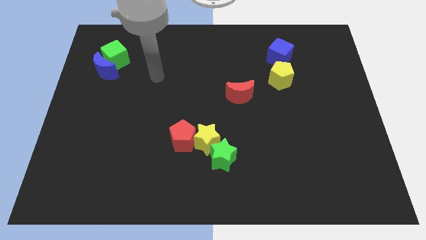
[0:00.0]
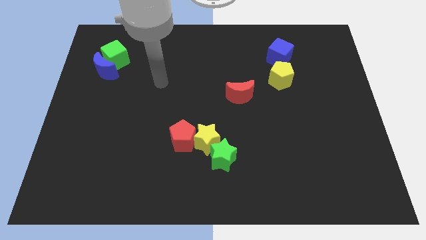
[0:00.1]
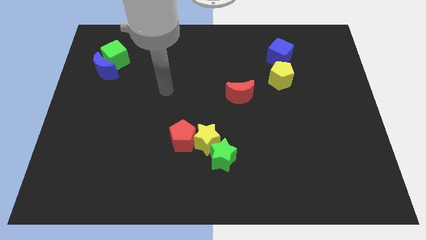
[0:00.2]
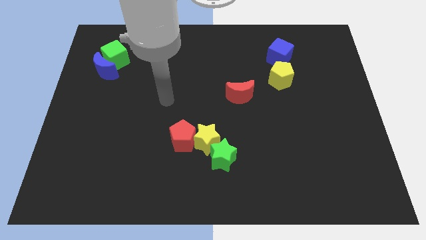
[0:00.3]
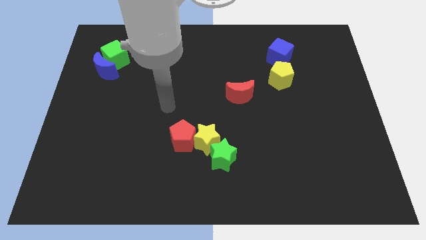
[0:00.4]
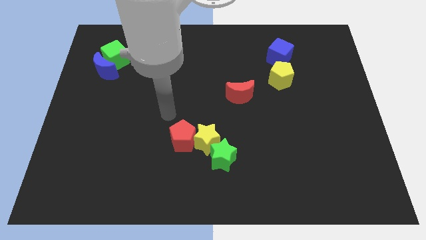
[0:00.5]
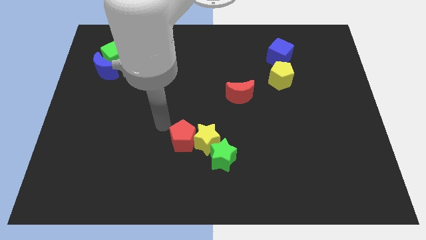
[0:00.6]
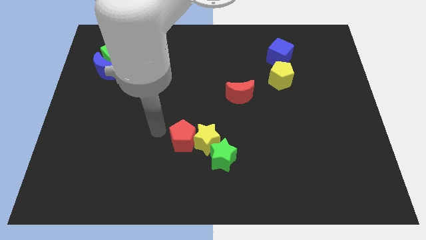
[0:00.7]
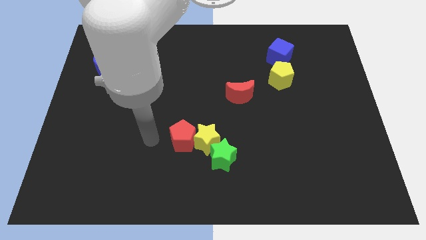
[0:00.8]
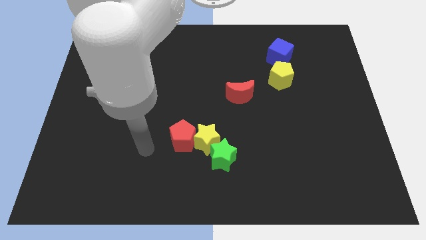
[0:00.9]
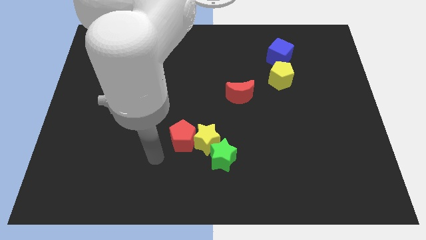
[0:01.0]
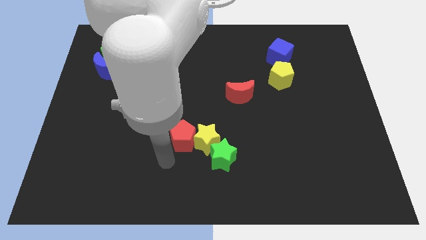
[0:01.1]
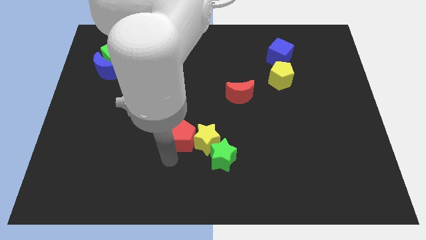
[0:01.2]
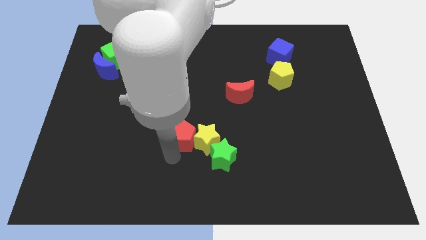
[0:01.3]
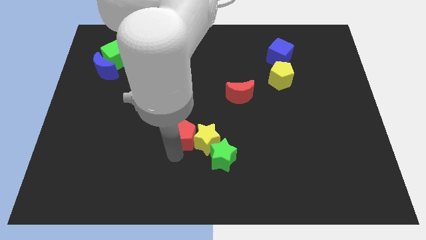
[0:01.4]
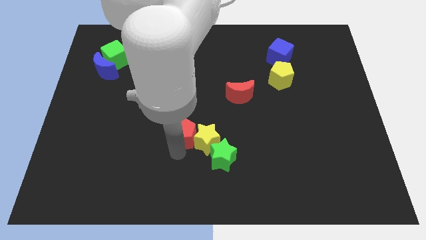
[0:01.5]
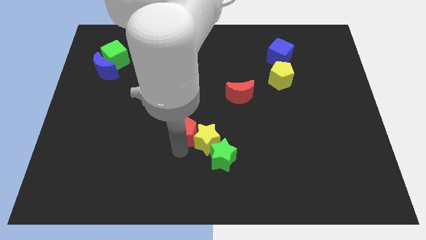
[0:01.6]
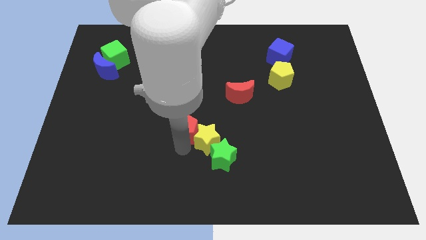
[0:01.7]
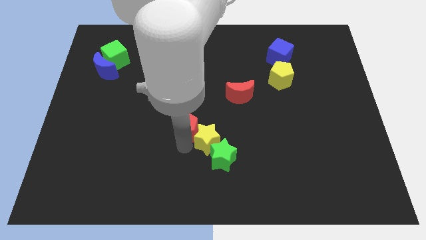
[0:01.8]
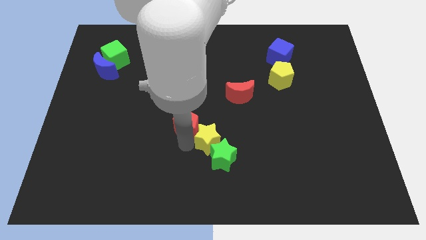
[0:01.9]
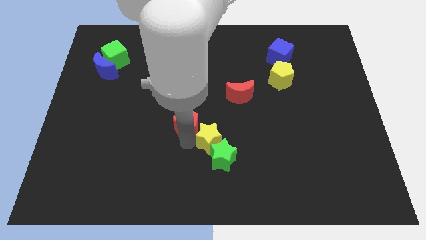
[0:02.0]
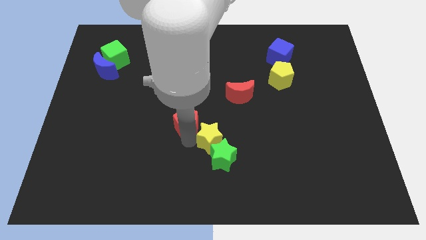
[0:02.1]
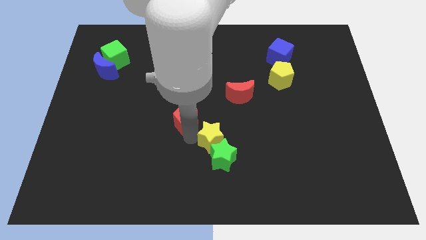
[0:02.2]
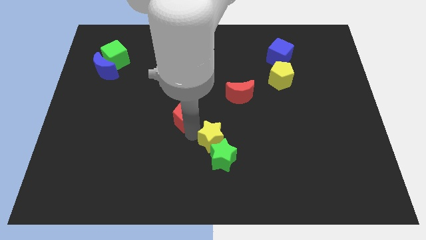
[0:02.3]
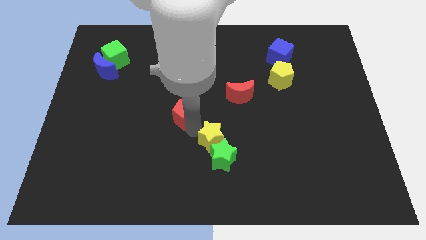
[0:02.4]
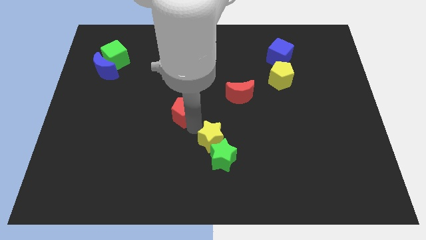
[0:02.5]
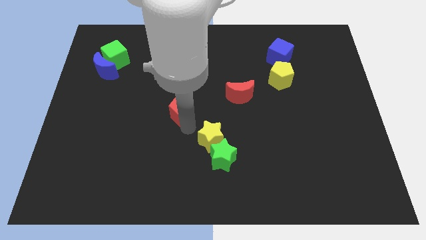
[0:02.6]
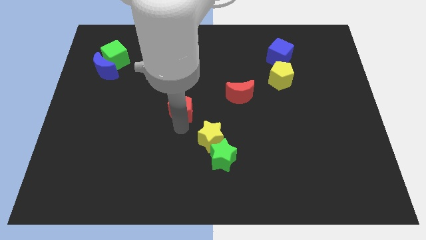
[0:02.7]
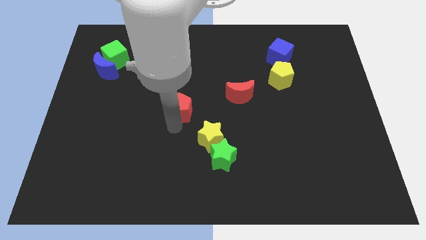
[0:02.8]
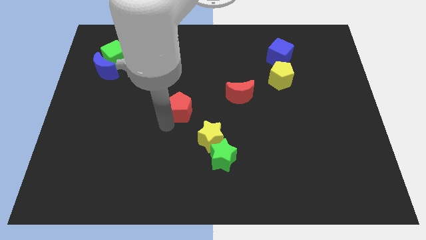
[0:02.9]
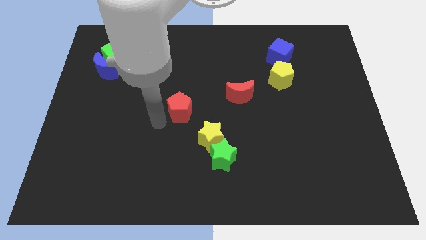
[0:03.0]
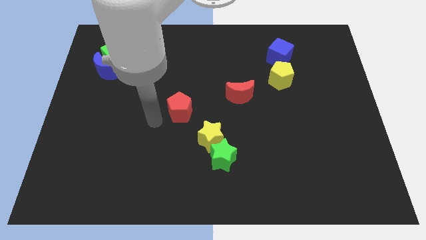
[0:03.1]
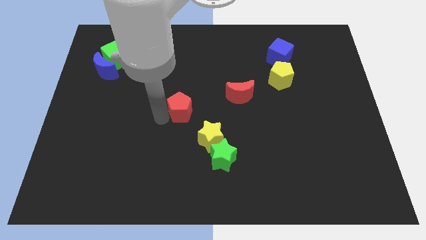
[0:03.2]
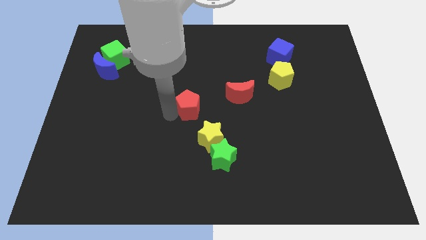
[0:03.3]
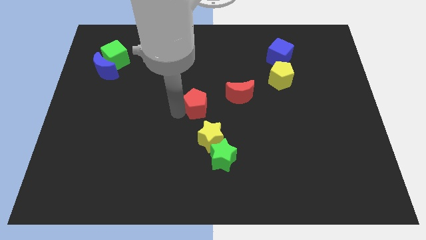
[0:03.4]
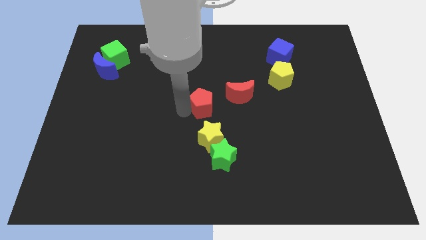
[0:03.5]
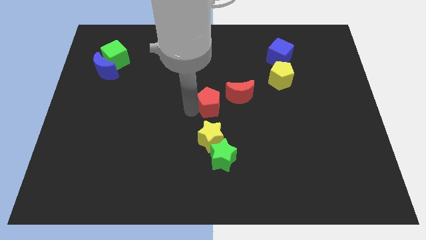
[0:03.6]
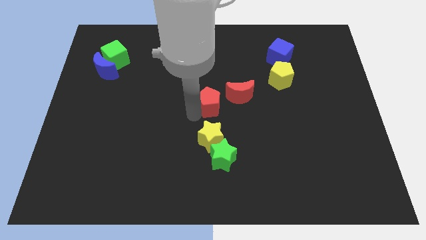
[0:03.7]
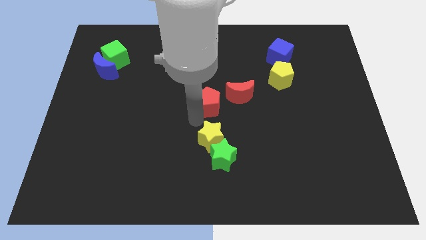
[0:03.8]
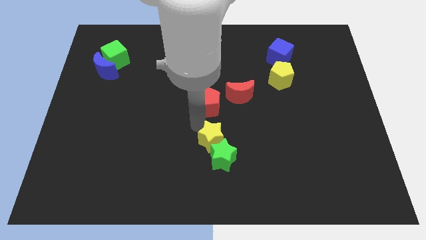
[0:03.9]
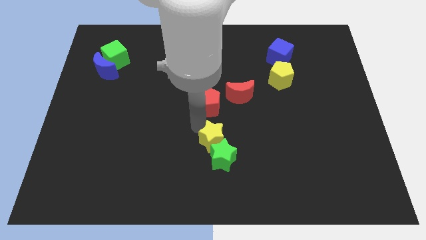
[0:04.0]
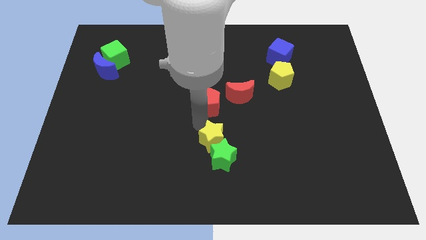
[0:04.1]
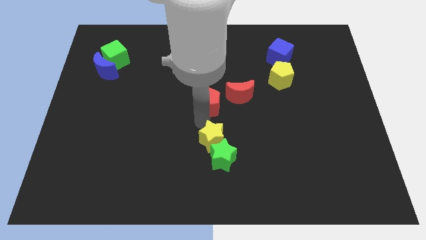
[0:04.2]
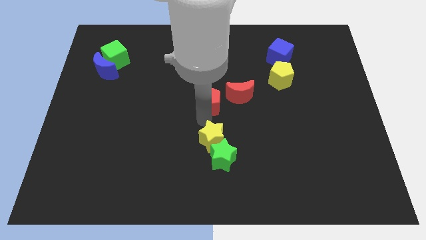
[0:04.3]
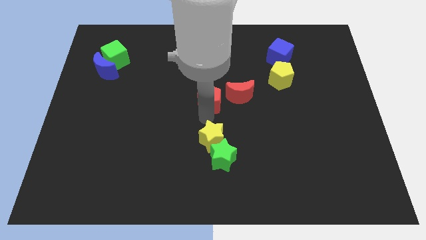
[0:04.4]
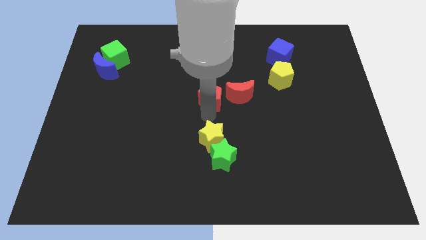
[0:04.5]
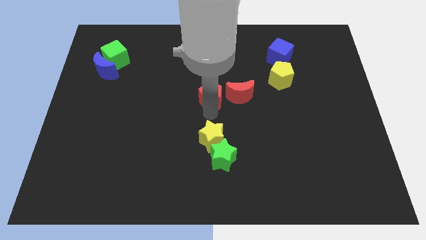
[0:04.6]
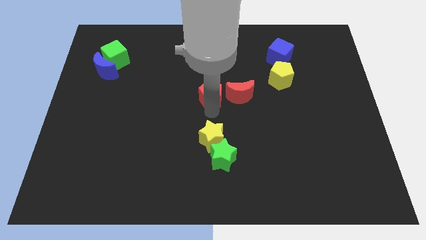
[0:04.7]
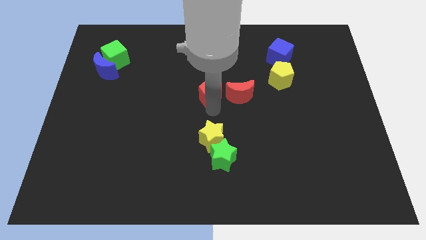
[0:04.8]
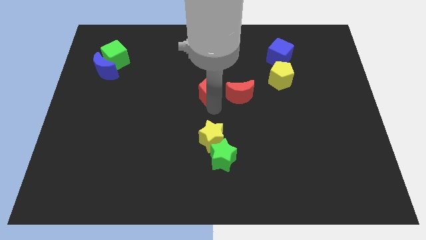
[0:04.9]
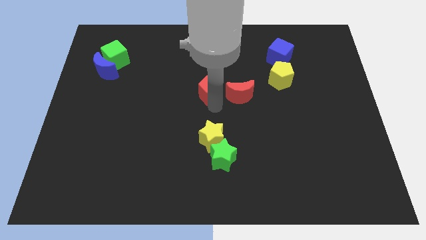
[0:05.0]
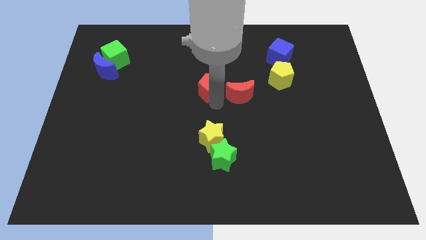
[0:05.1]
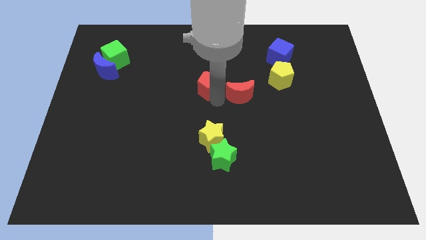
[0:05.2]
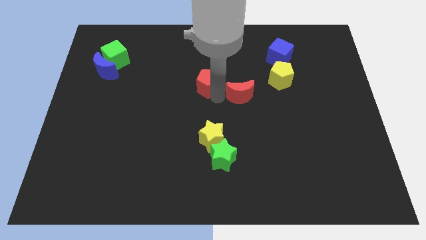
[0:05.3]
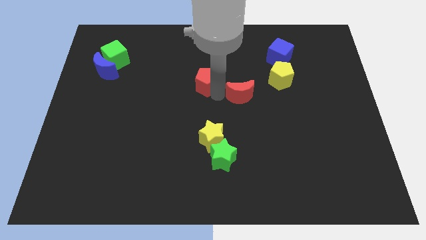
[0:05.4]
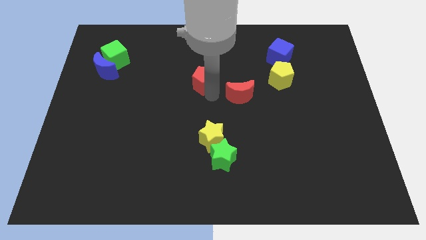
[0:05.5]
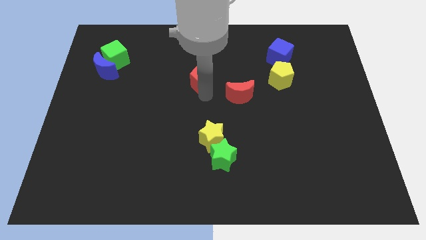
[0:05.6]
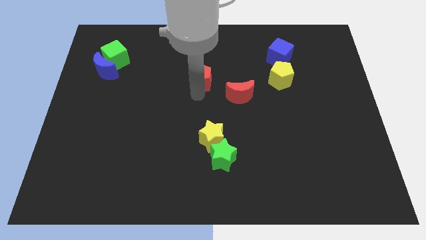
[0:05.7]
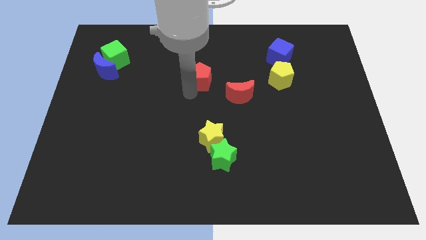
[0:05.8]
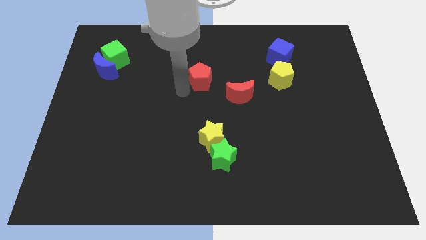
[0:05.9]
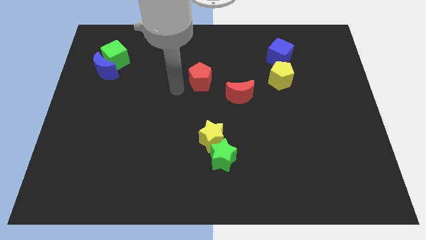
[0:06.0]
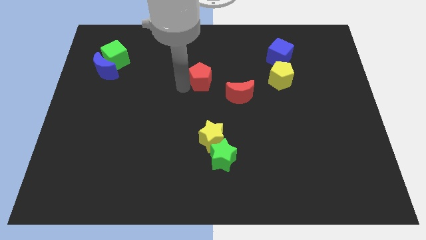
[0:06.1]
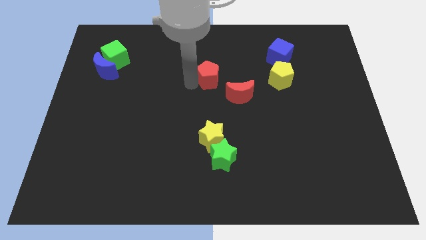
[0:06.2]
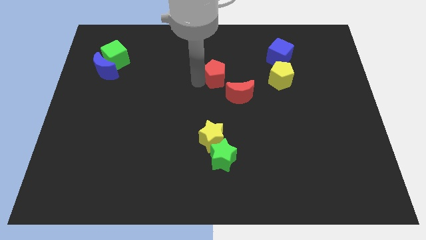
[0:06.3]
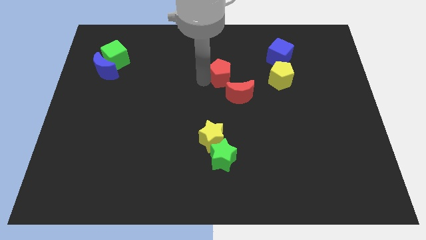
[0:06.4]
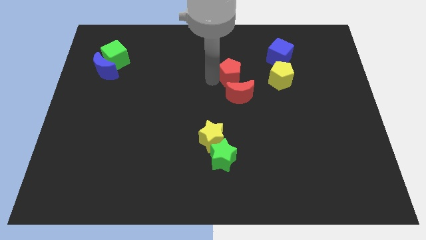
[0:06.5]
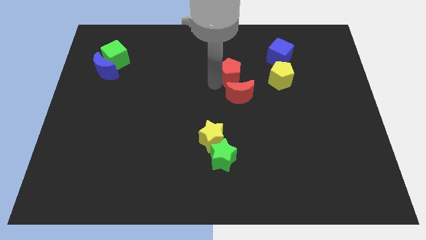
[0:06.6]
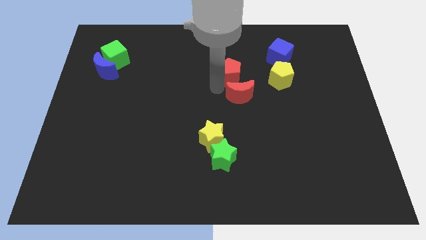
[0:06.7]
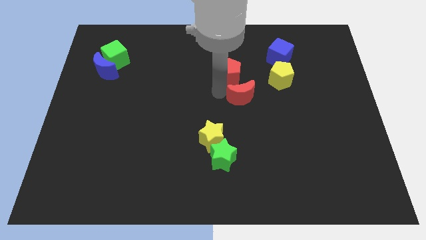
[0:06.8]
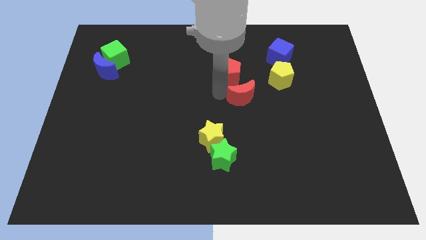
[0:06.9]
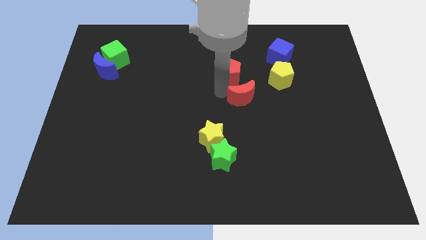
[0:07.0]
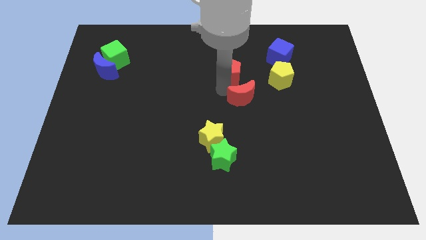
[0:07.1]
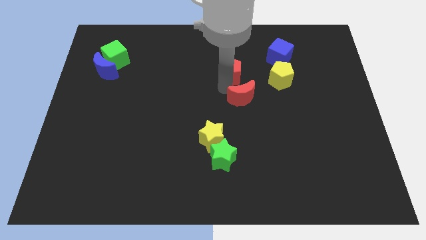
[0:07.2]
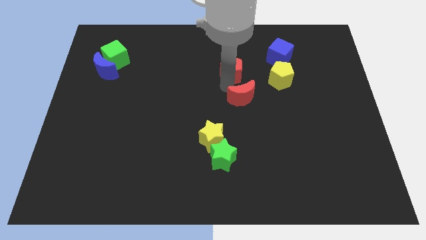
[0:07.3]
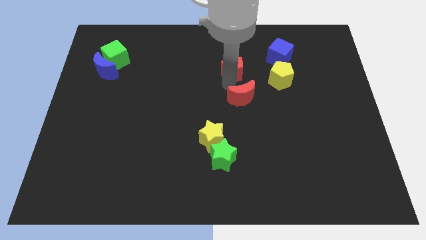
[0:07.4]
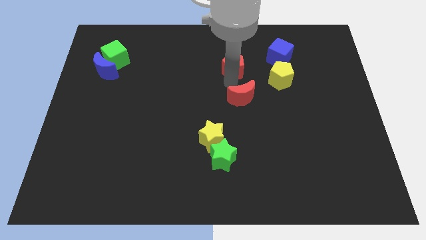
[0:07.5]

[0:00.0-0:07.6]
slide the red pentagon to the left side of the blue cube

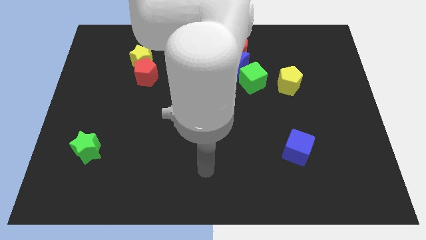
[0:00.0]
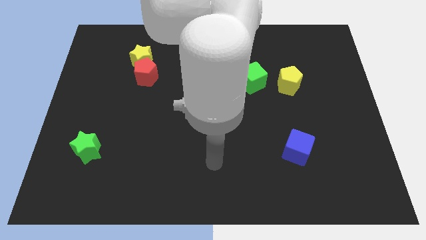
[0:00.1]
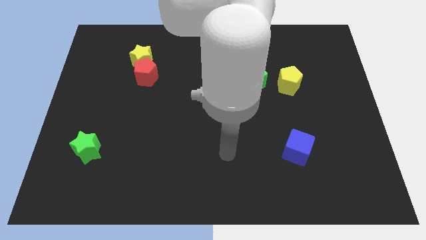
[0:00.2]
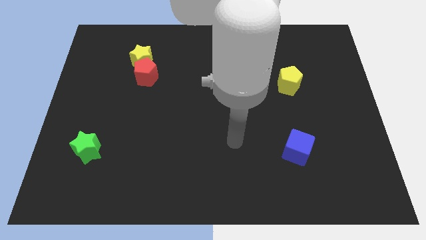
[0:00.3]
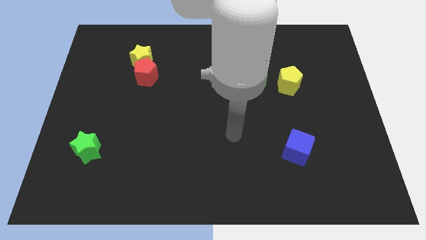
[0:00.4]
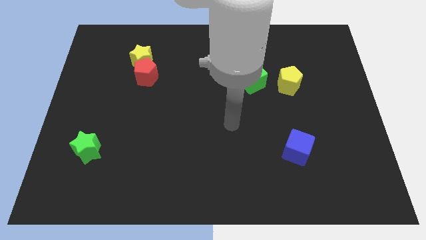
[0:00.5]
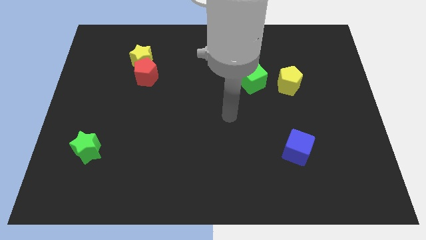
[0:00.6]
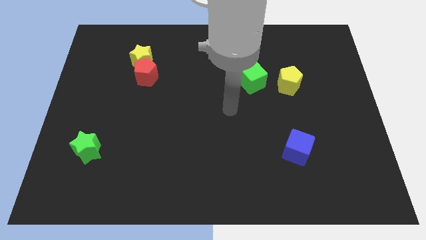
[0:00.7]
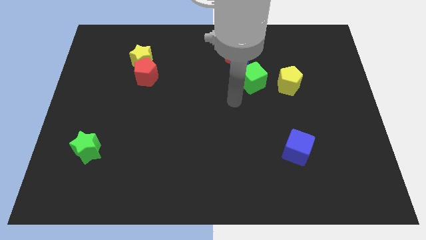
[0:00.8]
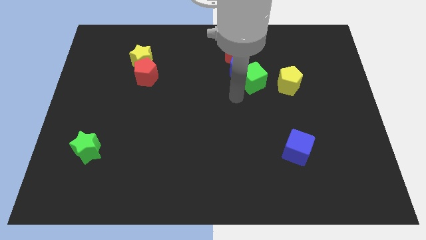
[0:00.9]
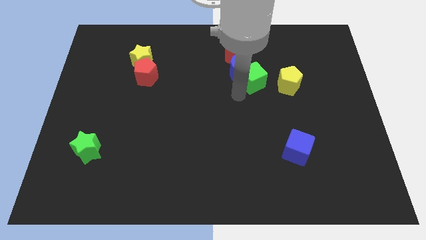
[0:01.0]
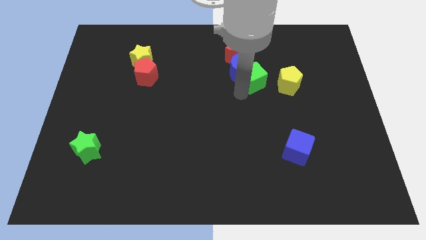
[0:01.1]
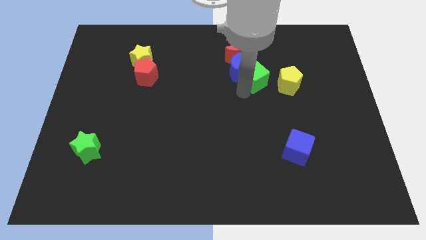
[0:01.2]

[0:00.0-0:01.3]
put the green cube diagonally up and to the left of the yellow pentagon
